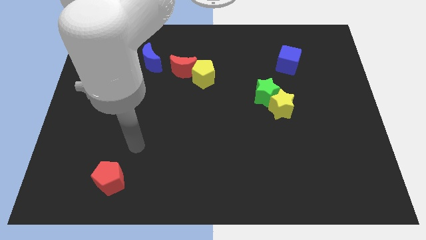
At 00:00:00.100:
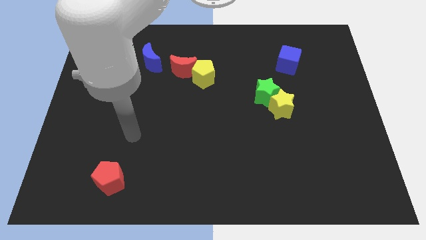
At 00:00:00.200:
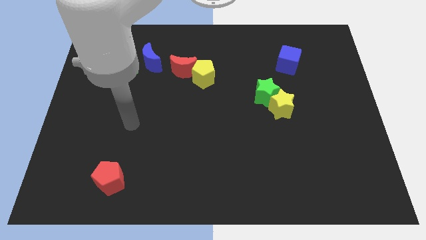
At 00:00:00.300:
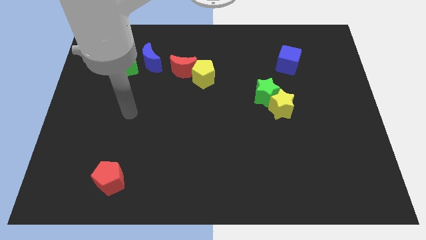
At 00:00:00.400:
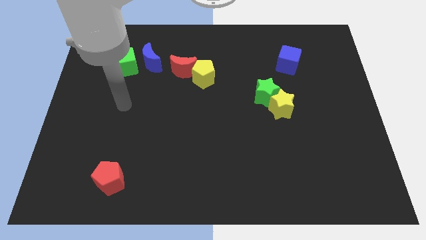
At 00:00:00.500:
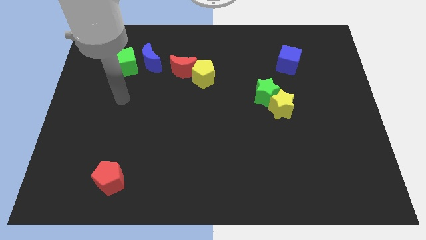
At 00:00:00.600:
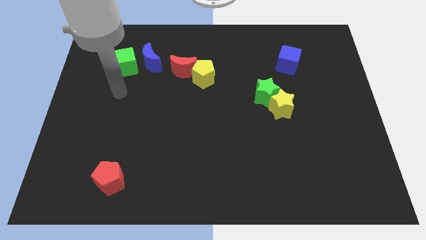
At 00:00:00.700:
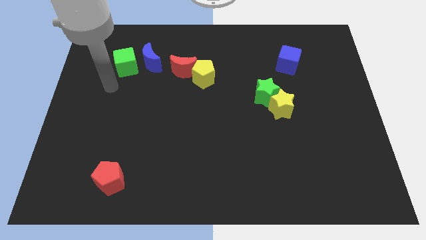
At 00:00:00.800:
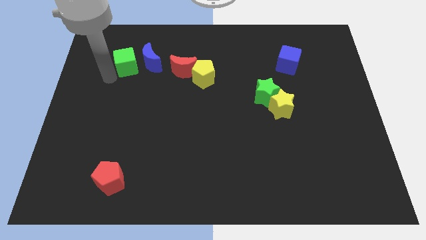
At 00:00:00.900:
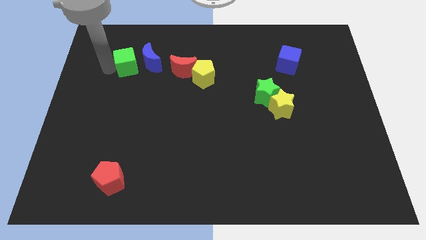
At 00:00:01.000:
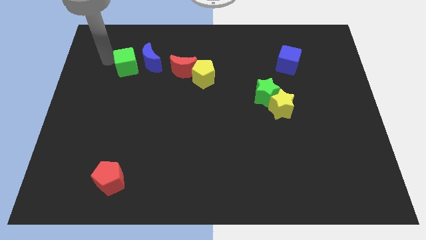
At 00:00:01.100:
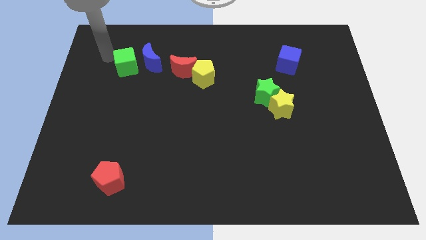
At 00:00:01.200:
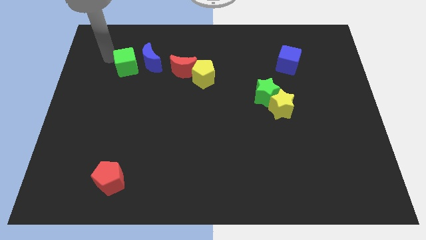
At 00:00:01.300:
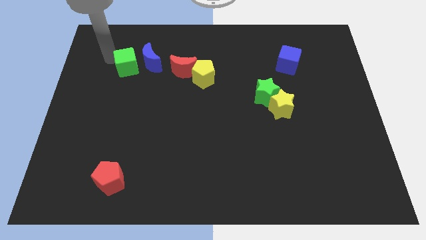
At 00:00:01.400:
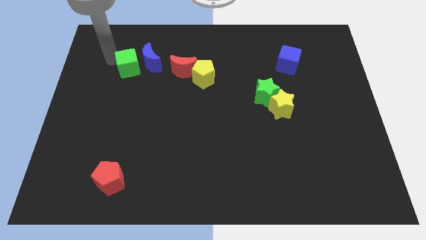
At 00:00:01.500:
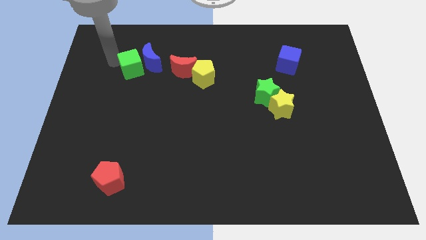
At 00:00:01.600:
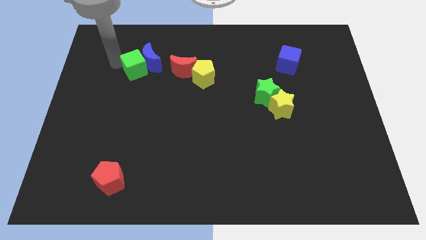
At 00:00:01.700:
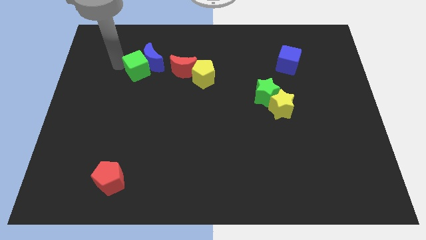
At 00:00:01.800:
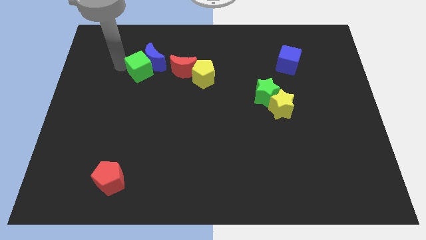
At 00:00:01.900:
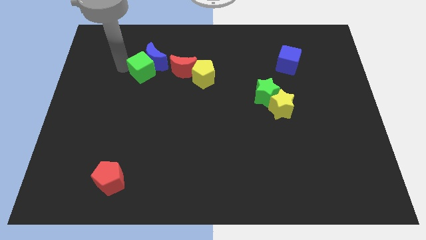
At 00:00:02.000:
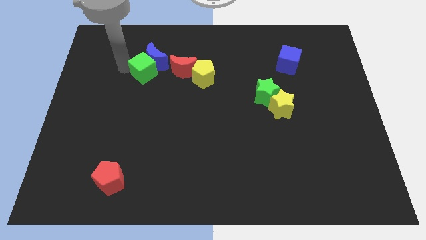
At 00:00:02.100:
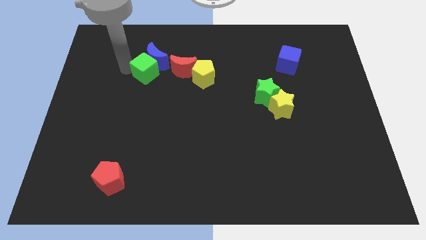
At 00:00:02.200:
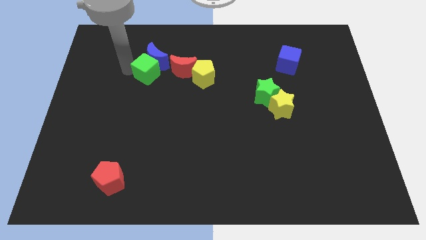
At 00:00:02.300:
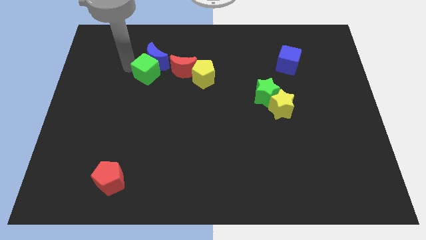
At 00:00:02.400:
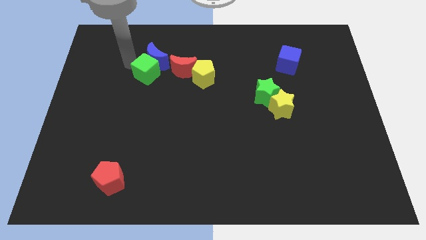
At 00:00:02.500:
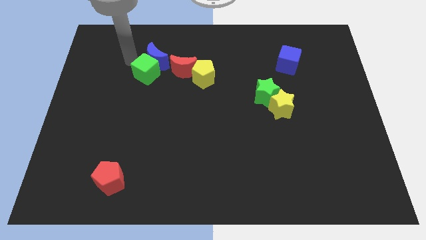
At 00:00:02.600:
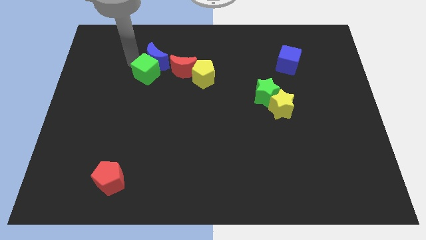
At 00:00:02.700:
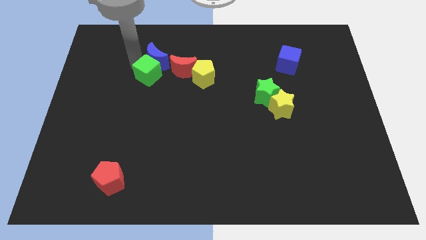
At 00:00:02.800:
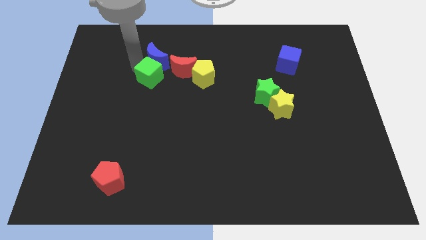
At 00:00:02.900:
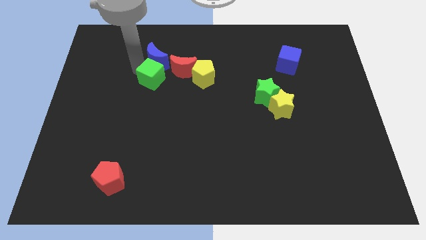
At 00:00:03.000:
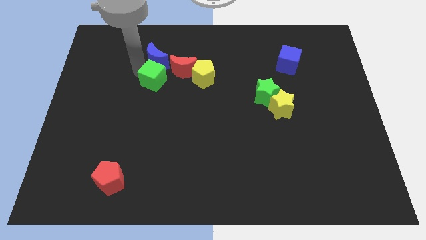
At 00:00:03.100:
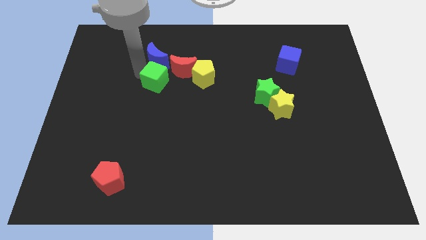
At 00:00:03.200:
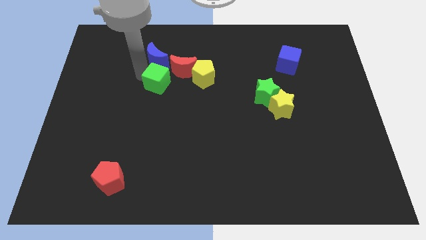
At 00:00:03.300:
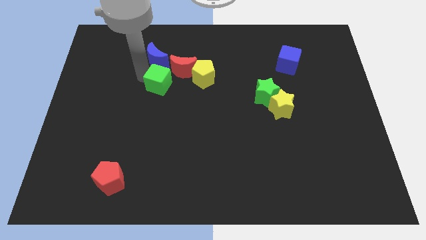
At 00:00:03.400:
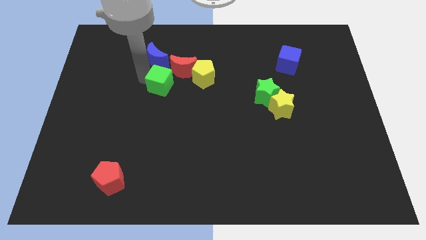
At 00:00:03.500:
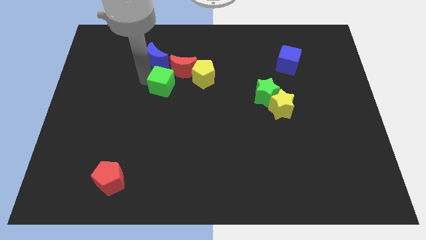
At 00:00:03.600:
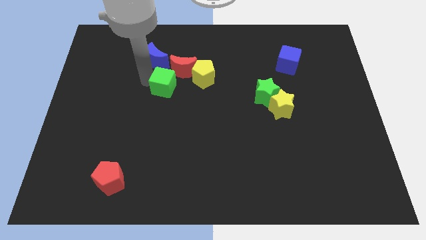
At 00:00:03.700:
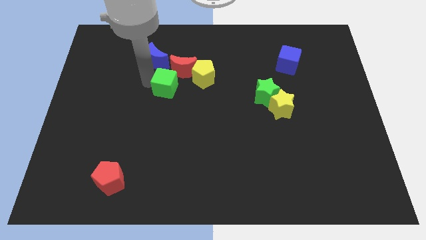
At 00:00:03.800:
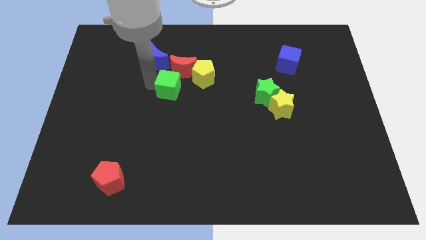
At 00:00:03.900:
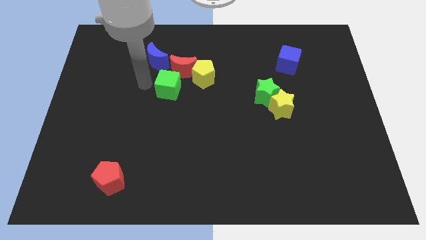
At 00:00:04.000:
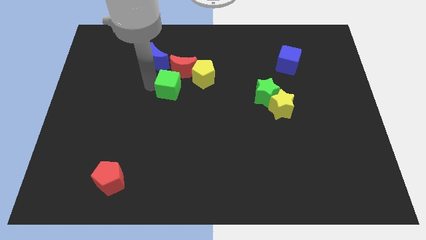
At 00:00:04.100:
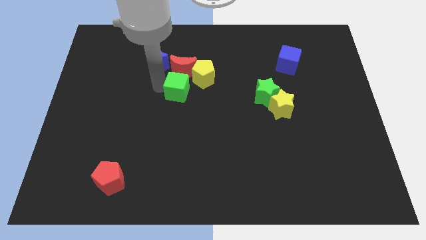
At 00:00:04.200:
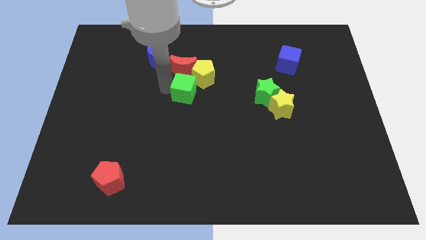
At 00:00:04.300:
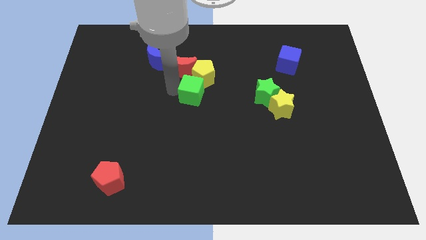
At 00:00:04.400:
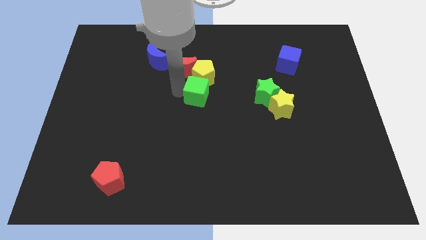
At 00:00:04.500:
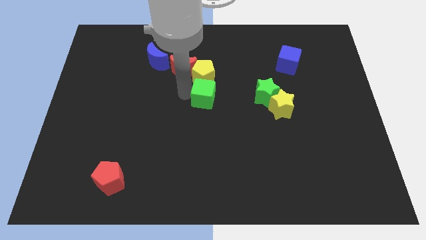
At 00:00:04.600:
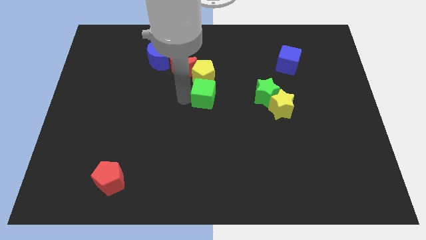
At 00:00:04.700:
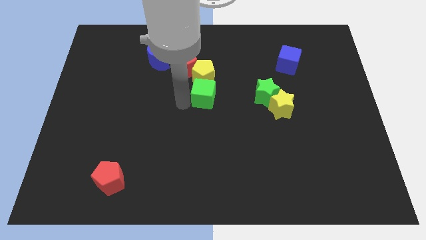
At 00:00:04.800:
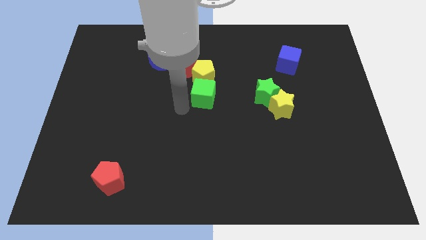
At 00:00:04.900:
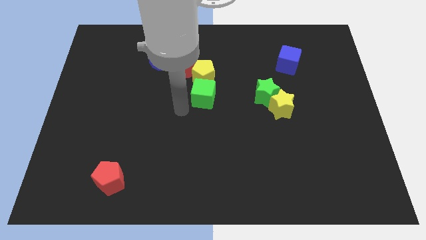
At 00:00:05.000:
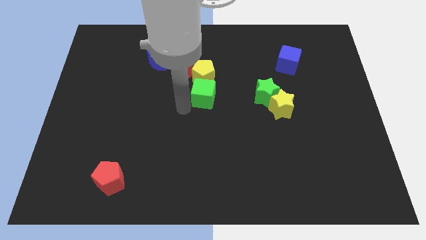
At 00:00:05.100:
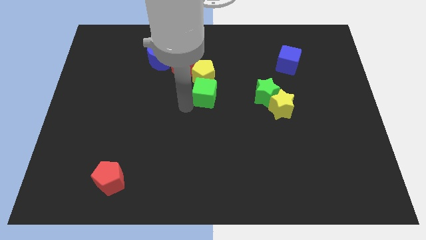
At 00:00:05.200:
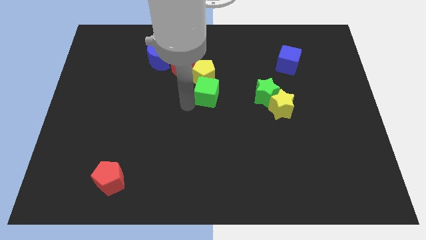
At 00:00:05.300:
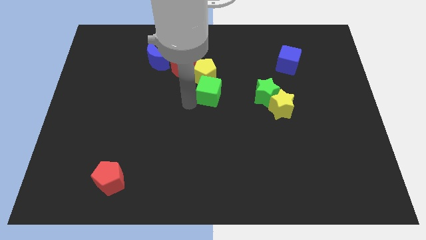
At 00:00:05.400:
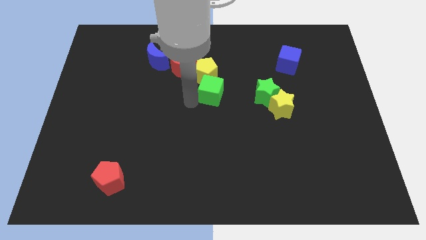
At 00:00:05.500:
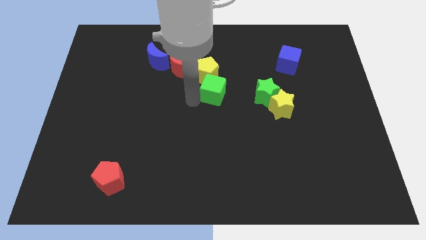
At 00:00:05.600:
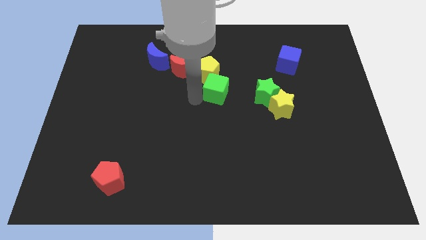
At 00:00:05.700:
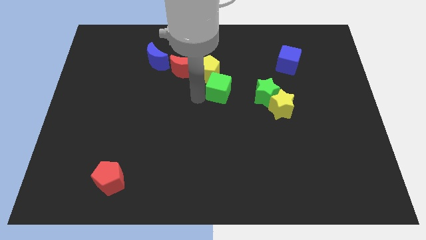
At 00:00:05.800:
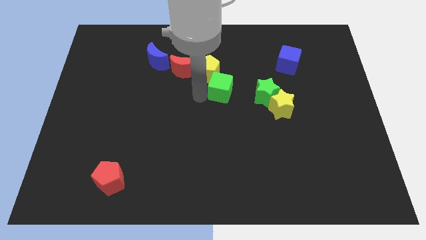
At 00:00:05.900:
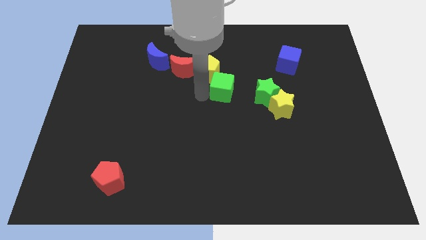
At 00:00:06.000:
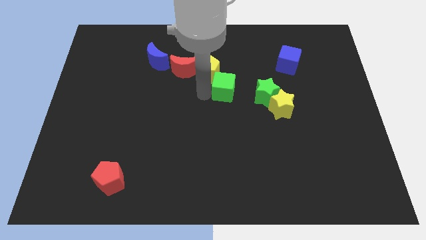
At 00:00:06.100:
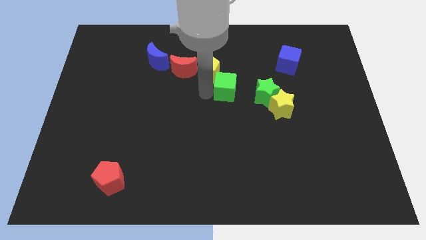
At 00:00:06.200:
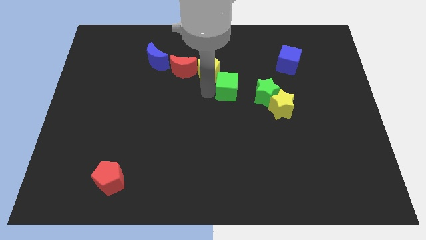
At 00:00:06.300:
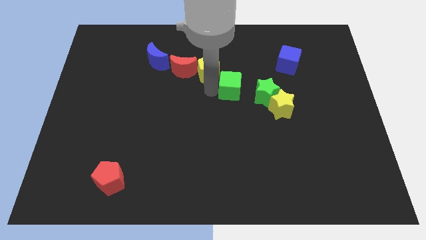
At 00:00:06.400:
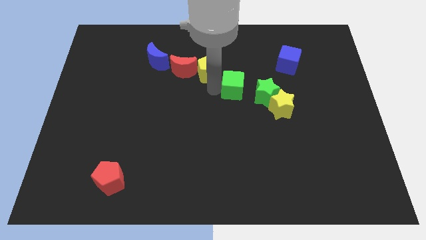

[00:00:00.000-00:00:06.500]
move the green cube to the right side of the yellow pentagon

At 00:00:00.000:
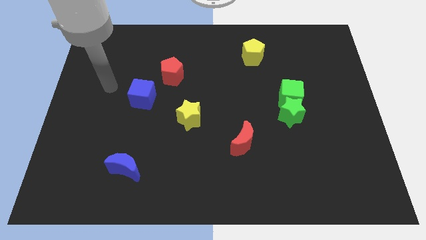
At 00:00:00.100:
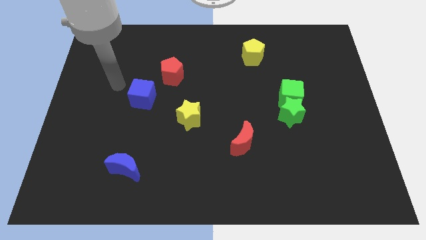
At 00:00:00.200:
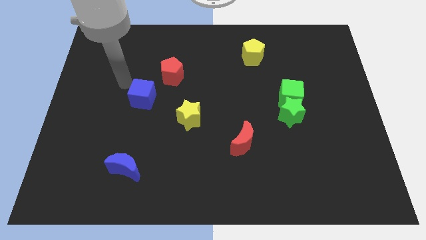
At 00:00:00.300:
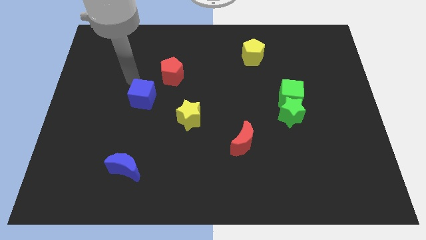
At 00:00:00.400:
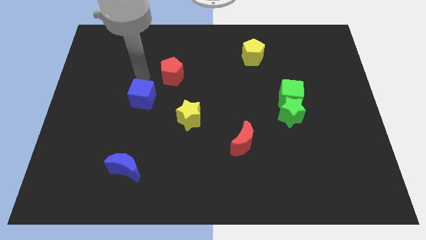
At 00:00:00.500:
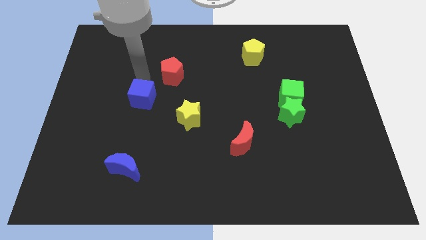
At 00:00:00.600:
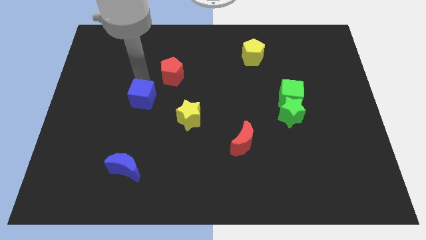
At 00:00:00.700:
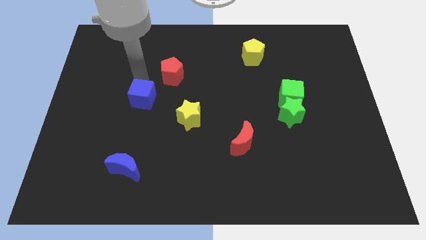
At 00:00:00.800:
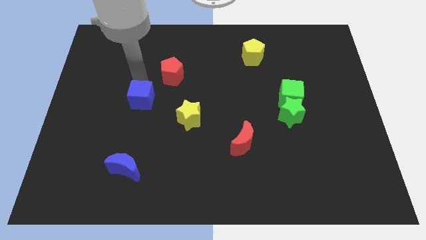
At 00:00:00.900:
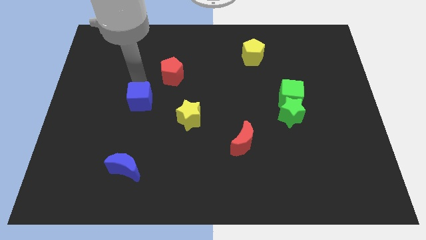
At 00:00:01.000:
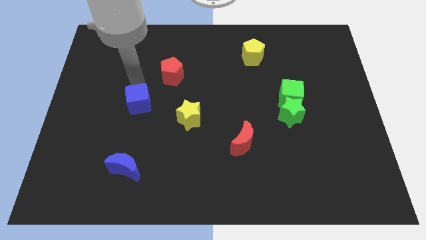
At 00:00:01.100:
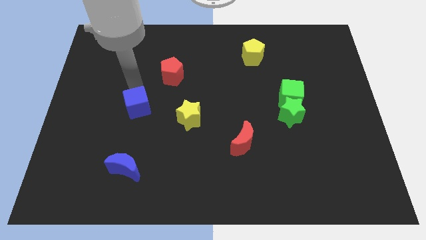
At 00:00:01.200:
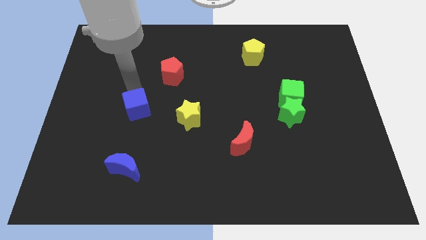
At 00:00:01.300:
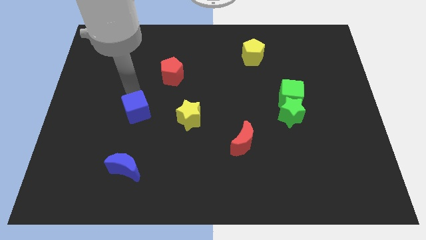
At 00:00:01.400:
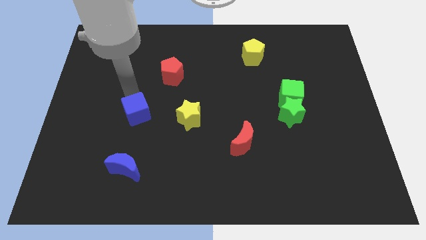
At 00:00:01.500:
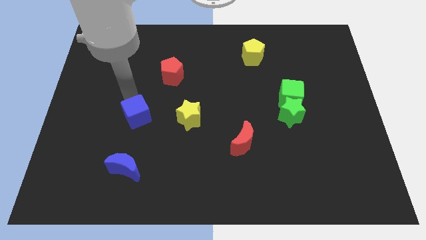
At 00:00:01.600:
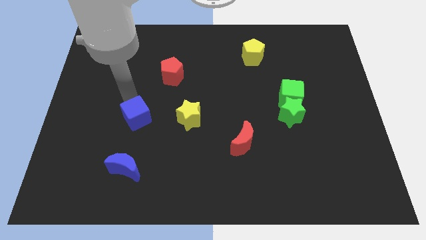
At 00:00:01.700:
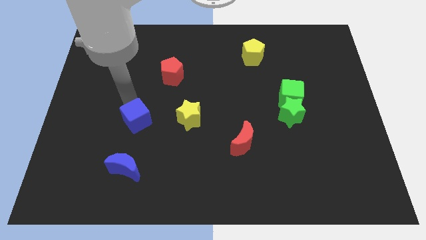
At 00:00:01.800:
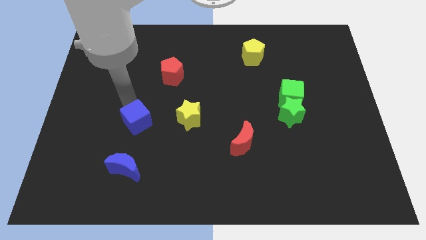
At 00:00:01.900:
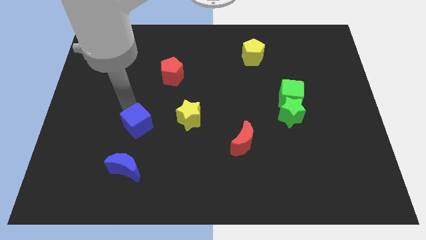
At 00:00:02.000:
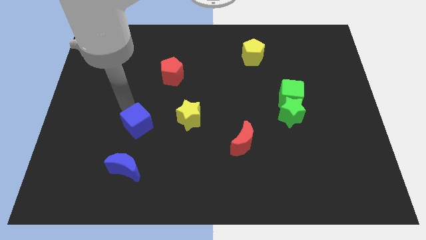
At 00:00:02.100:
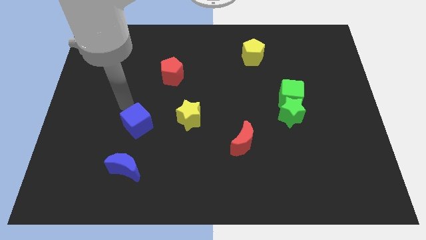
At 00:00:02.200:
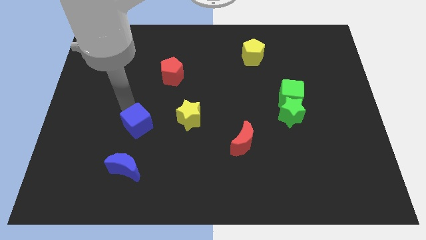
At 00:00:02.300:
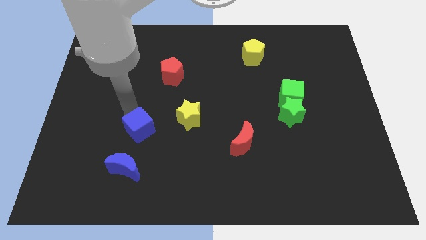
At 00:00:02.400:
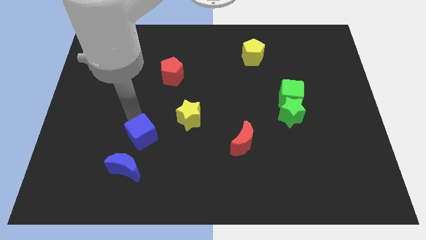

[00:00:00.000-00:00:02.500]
slide the blue cube to the top right of the blue moon
